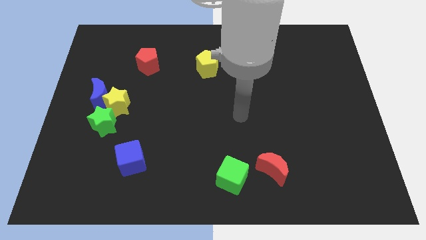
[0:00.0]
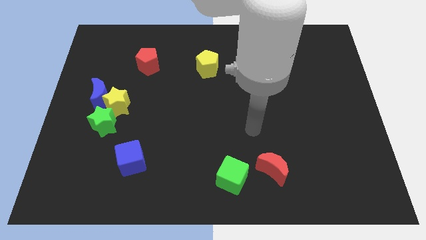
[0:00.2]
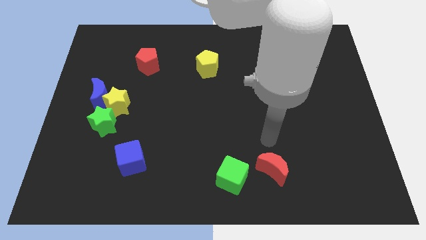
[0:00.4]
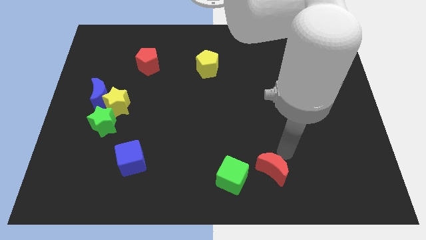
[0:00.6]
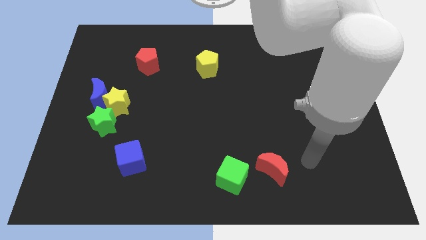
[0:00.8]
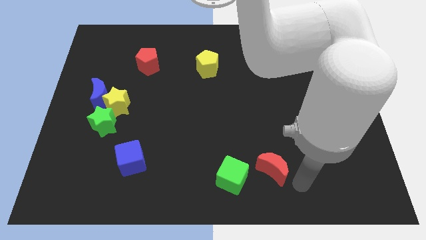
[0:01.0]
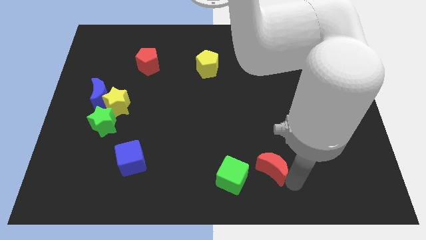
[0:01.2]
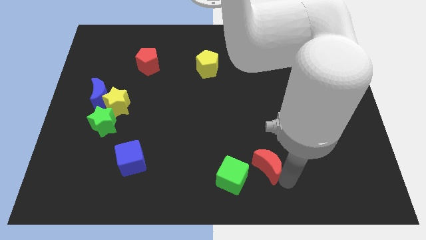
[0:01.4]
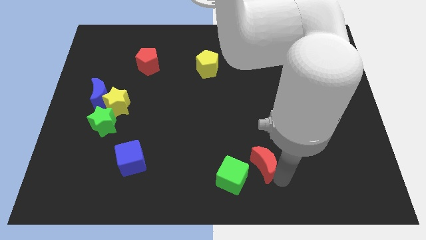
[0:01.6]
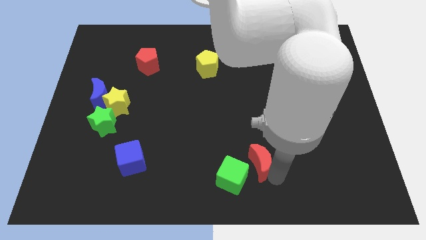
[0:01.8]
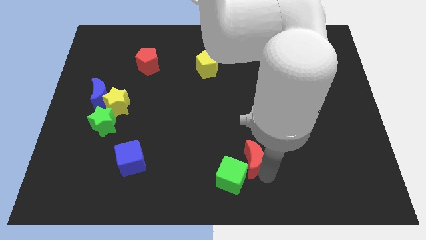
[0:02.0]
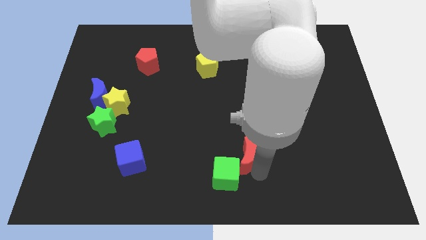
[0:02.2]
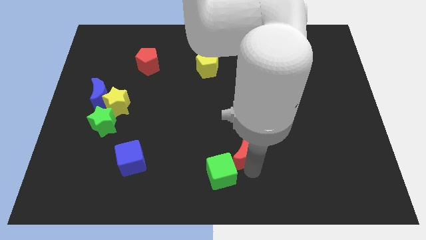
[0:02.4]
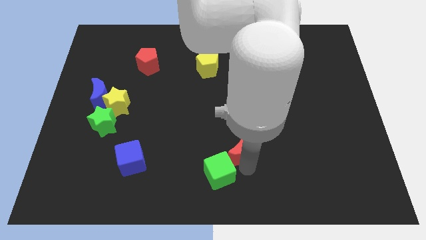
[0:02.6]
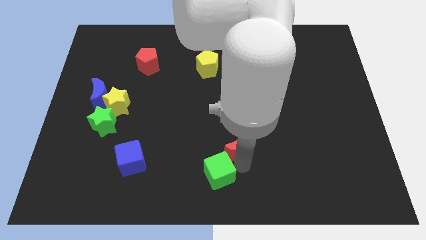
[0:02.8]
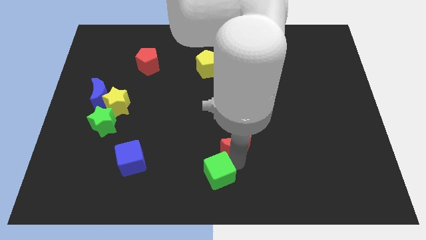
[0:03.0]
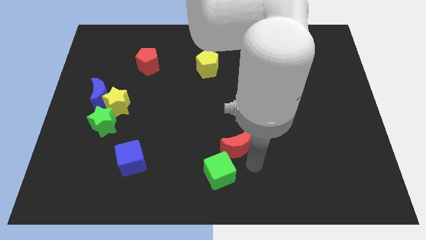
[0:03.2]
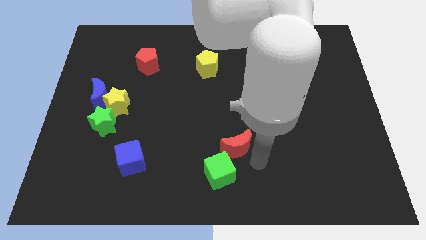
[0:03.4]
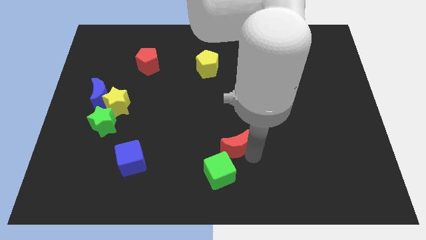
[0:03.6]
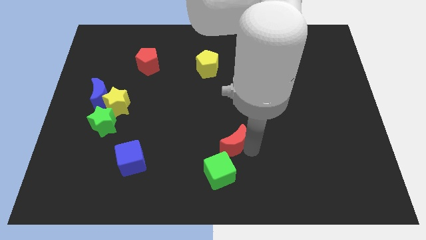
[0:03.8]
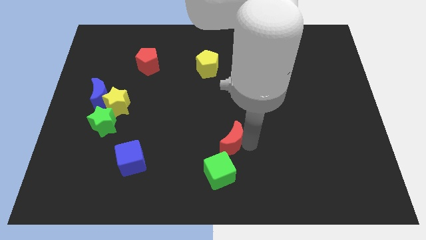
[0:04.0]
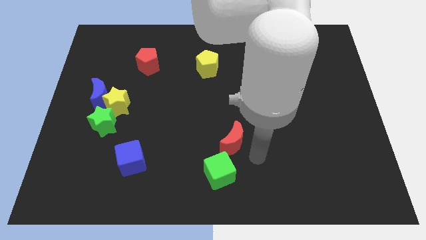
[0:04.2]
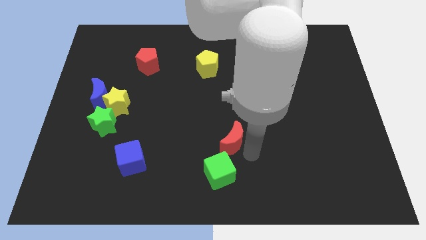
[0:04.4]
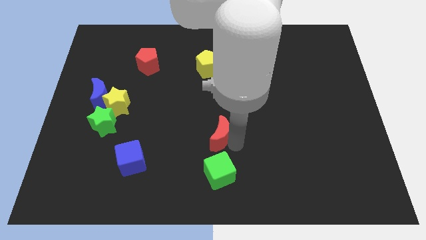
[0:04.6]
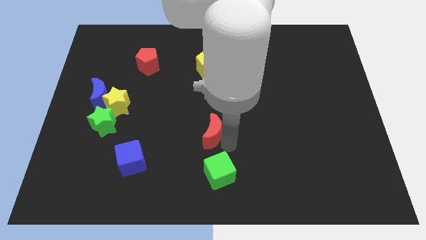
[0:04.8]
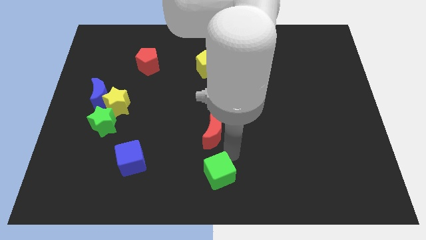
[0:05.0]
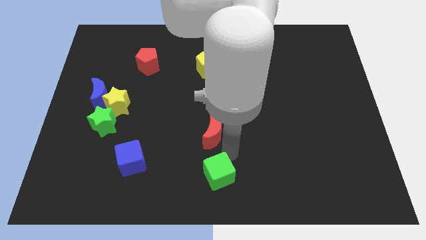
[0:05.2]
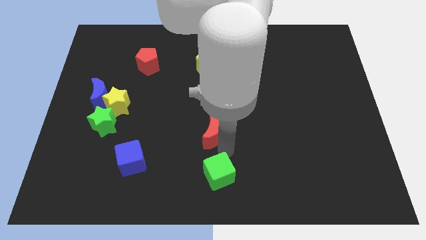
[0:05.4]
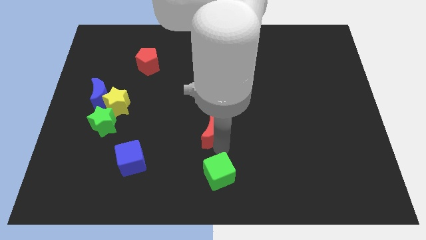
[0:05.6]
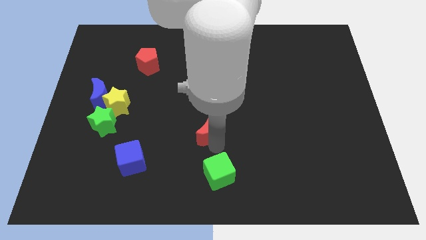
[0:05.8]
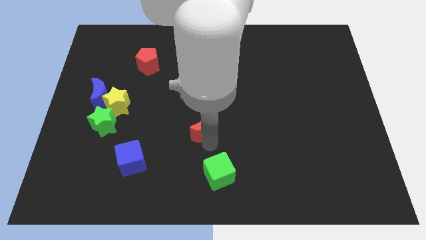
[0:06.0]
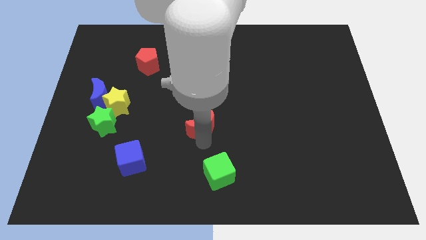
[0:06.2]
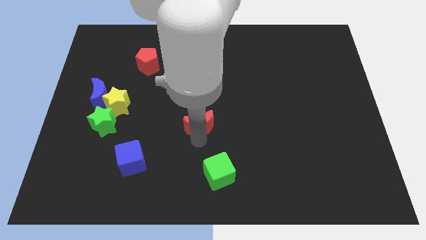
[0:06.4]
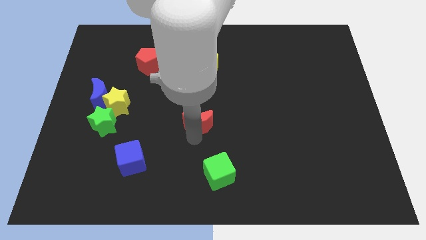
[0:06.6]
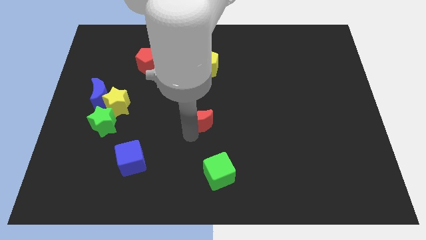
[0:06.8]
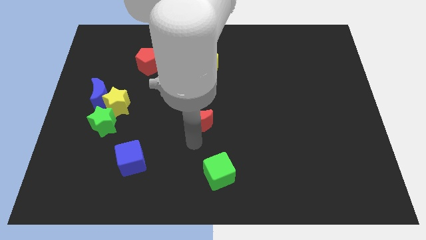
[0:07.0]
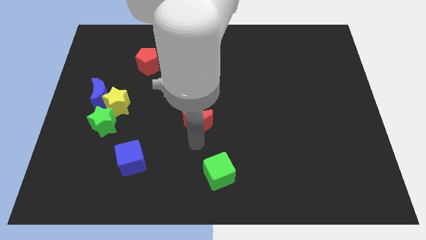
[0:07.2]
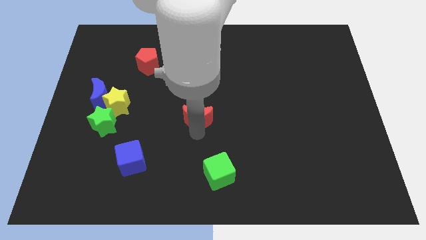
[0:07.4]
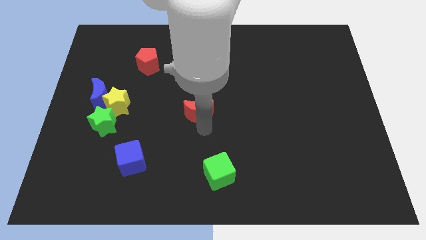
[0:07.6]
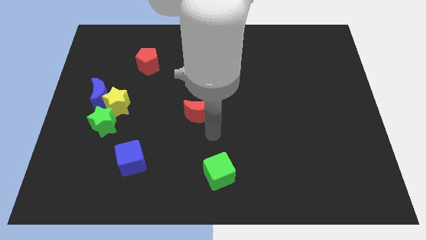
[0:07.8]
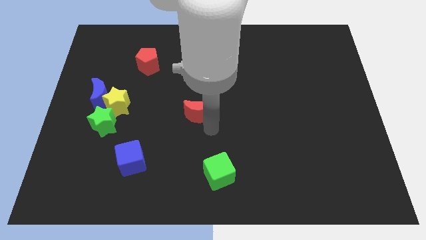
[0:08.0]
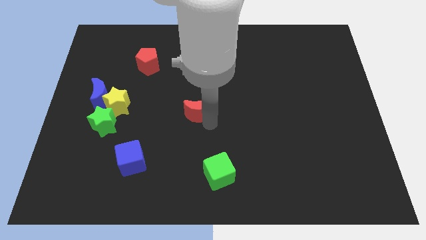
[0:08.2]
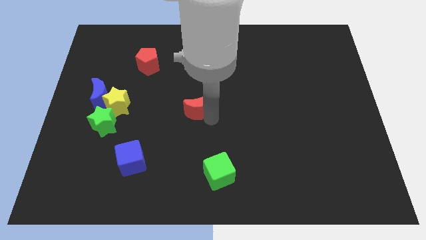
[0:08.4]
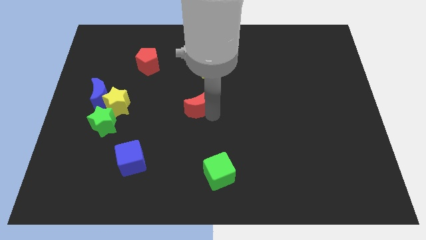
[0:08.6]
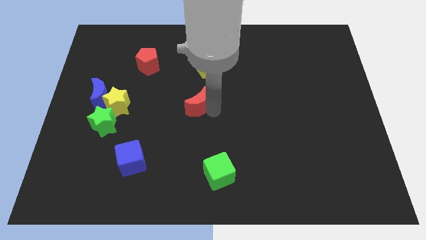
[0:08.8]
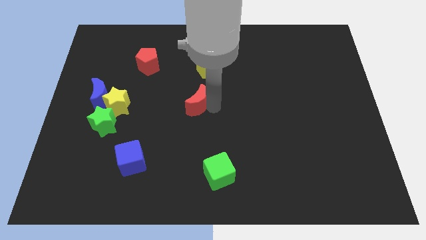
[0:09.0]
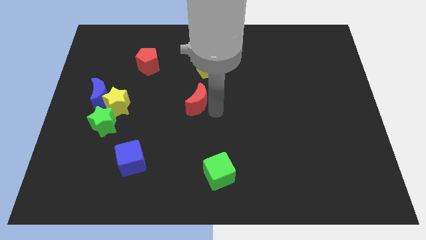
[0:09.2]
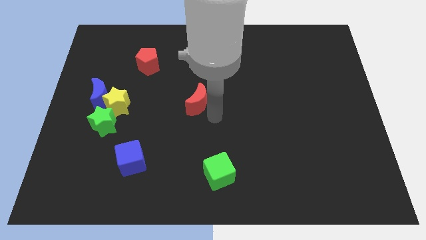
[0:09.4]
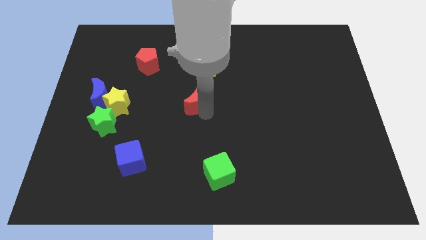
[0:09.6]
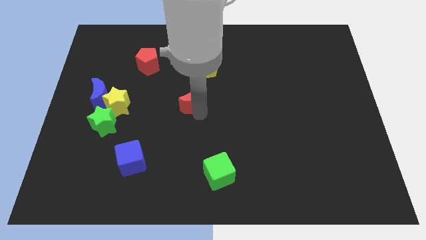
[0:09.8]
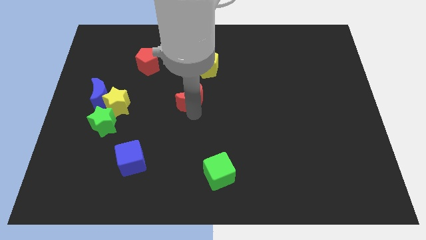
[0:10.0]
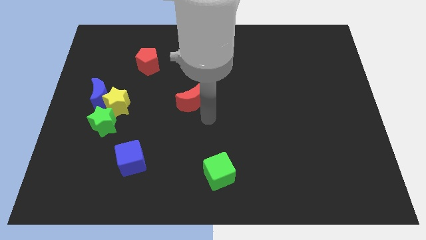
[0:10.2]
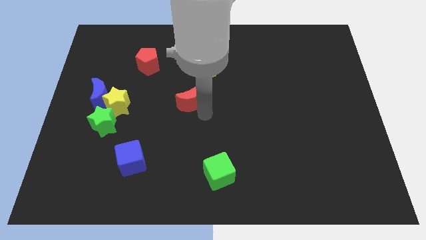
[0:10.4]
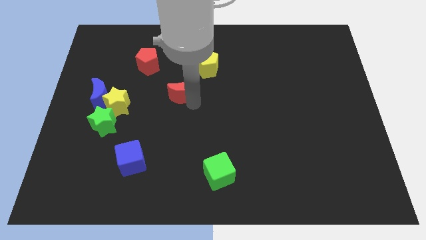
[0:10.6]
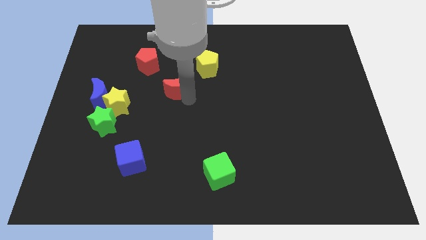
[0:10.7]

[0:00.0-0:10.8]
put the red moon to the bottom right side of the red pentagon

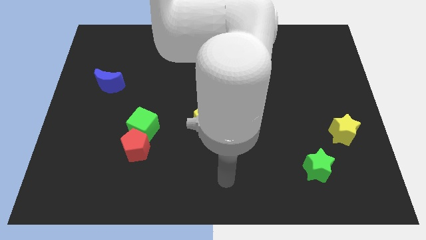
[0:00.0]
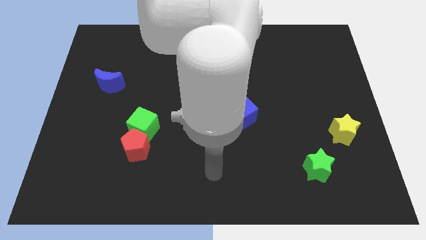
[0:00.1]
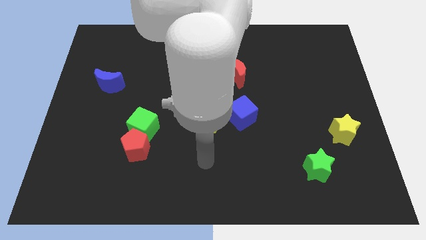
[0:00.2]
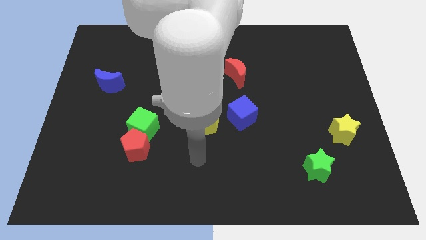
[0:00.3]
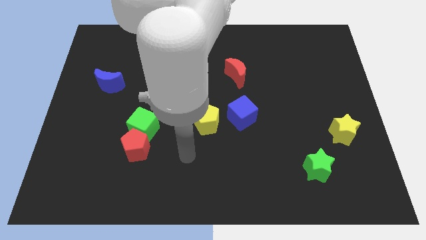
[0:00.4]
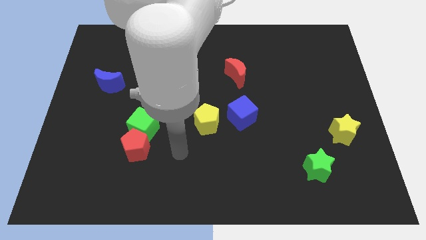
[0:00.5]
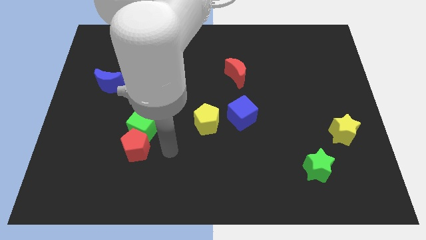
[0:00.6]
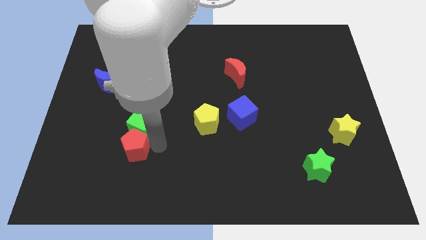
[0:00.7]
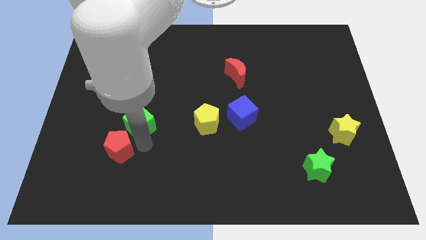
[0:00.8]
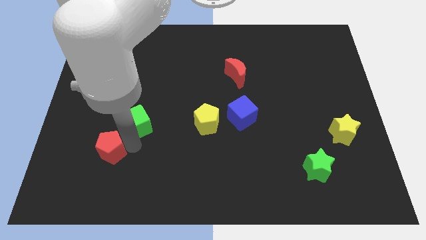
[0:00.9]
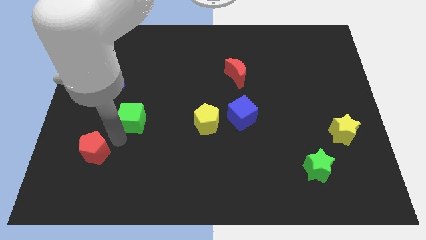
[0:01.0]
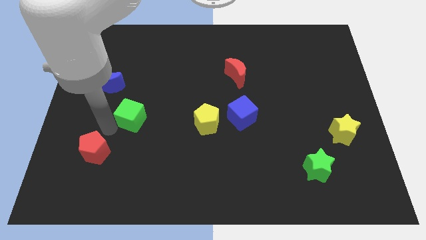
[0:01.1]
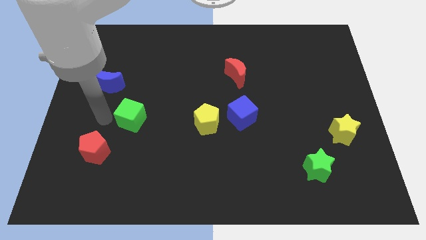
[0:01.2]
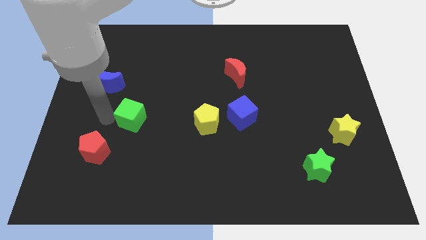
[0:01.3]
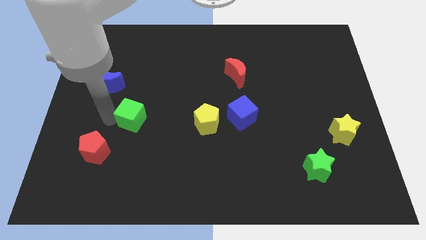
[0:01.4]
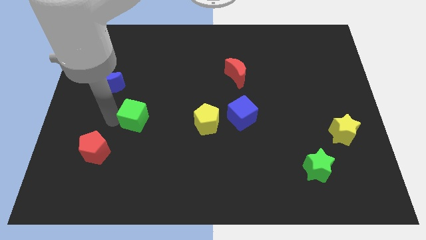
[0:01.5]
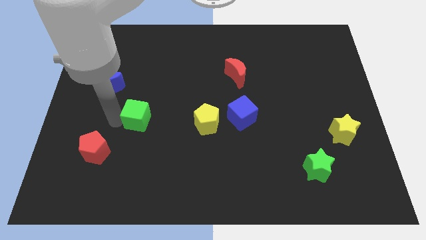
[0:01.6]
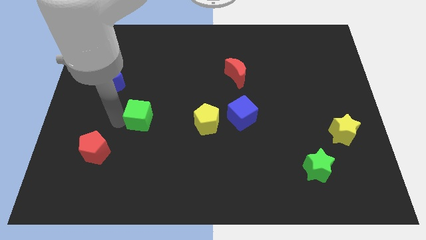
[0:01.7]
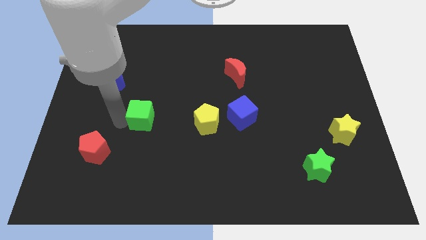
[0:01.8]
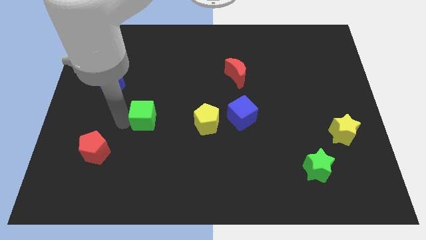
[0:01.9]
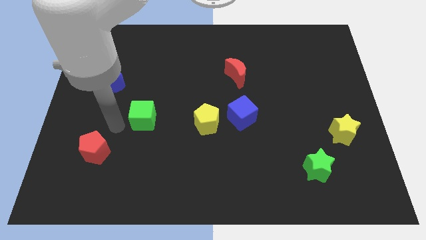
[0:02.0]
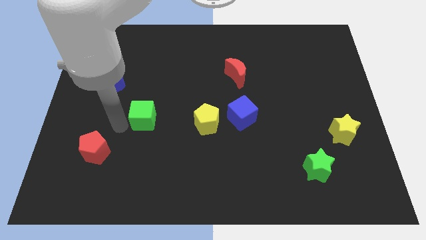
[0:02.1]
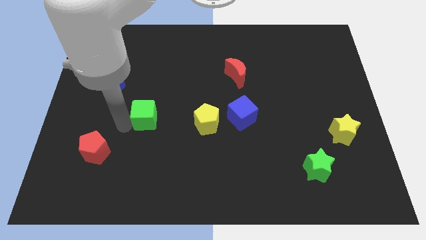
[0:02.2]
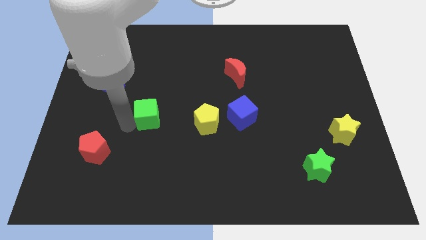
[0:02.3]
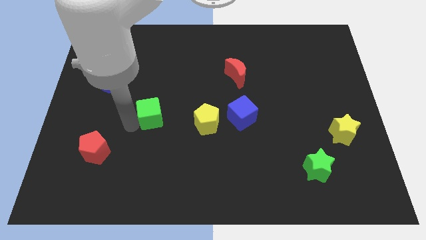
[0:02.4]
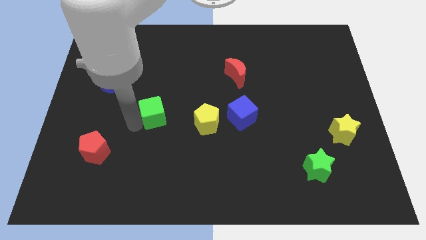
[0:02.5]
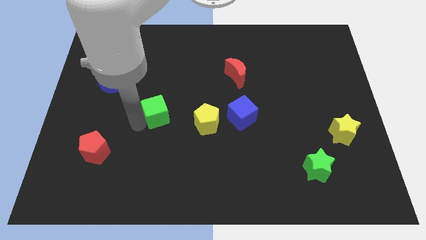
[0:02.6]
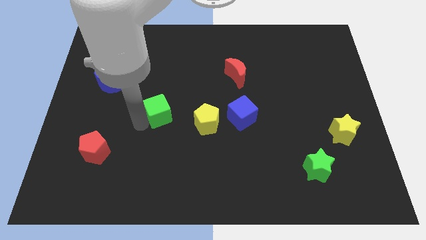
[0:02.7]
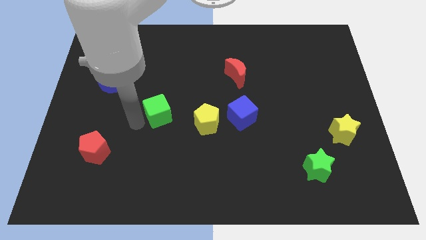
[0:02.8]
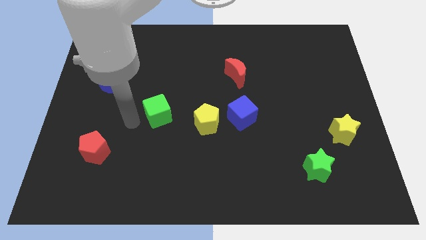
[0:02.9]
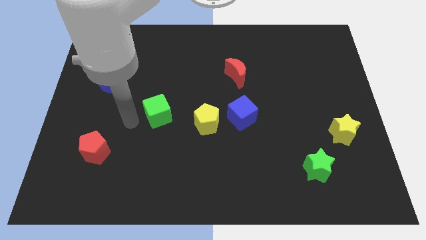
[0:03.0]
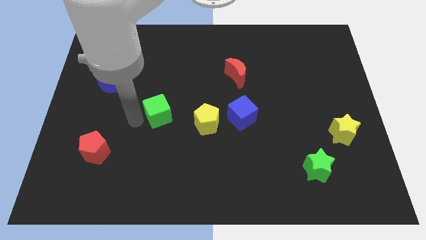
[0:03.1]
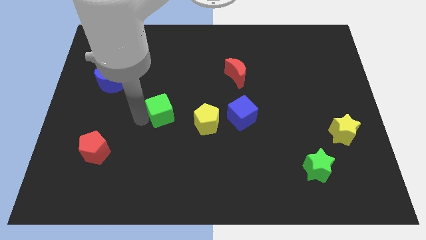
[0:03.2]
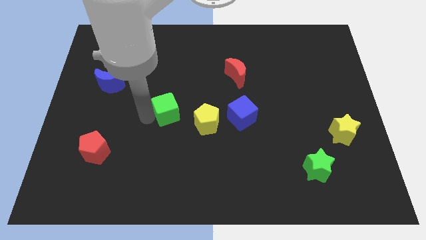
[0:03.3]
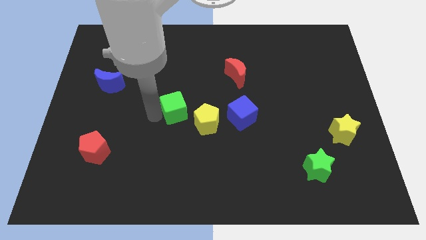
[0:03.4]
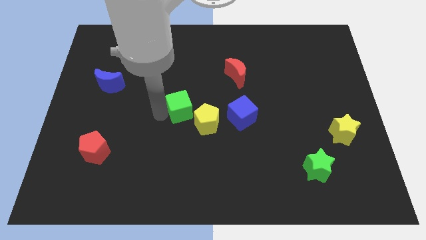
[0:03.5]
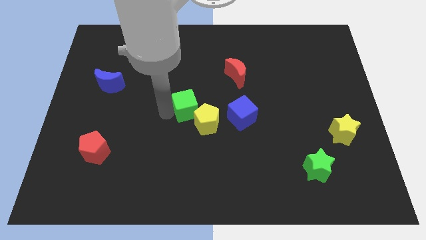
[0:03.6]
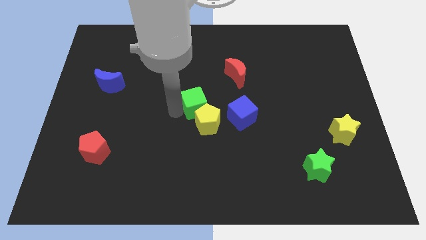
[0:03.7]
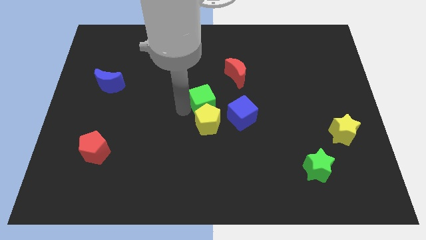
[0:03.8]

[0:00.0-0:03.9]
put the green cube to the top left of the blue cube
